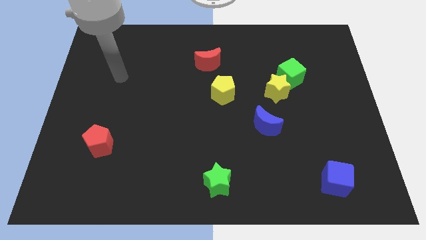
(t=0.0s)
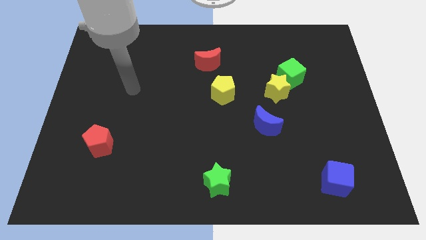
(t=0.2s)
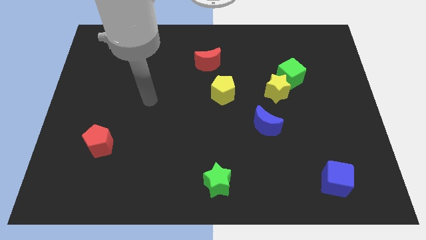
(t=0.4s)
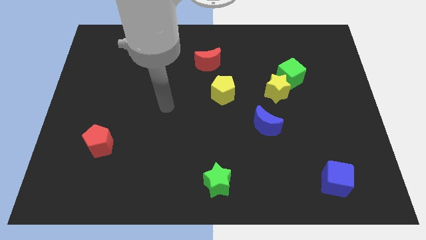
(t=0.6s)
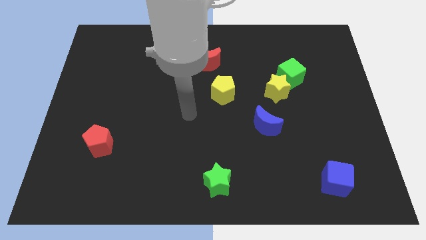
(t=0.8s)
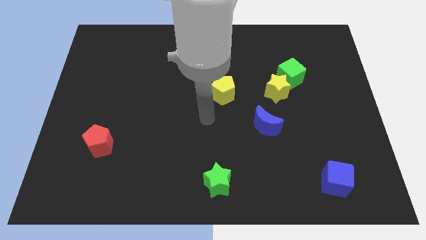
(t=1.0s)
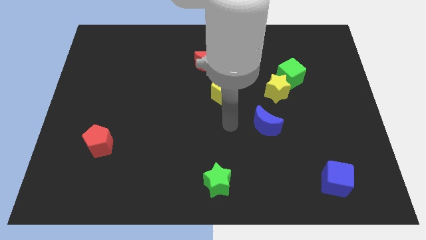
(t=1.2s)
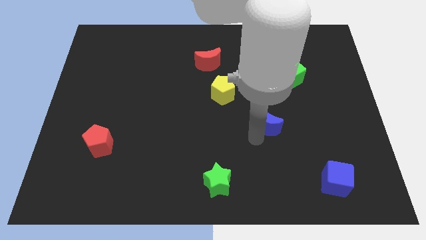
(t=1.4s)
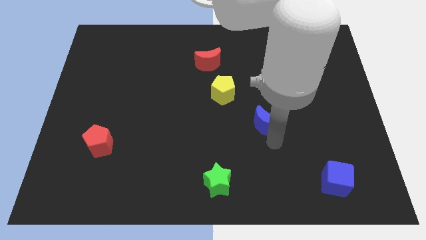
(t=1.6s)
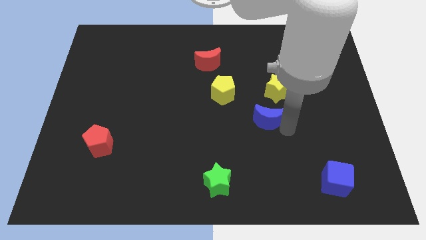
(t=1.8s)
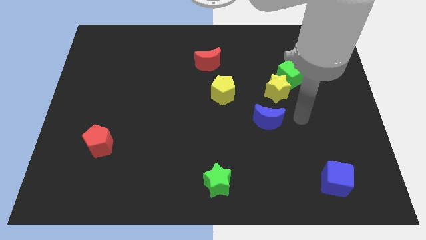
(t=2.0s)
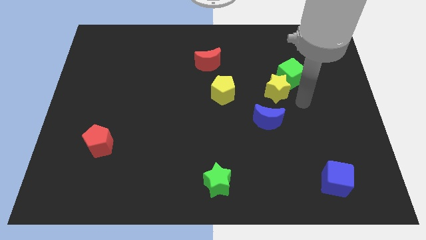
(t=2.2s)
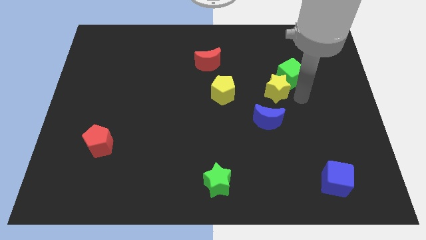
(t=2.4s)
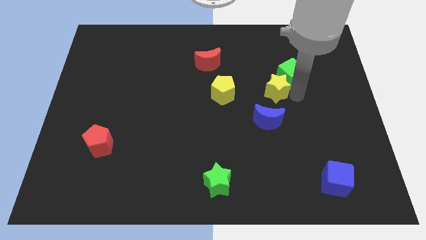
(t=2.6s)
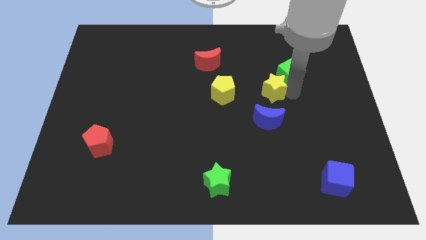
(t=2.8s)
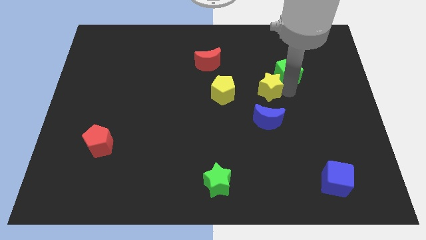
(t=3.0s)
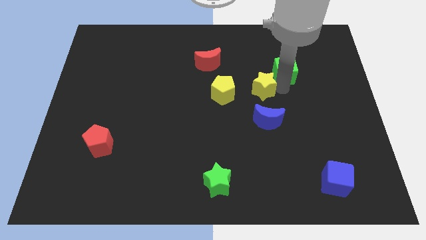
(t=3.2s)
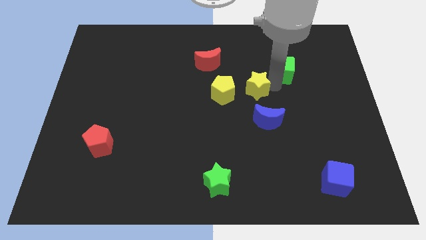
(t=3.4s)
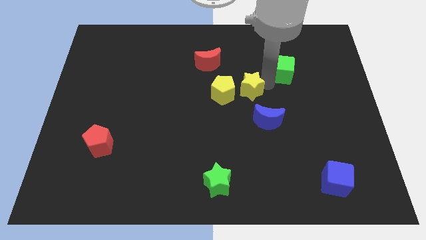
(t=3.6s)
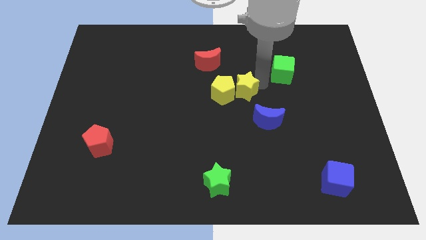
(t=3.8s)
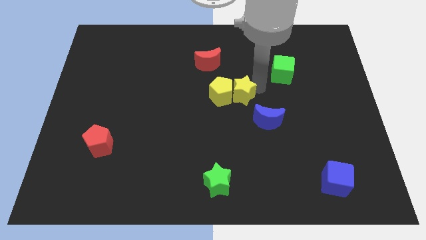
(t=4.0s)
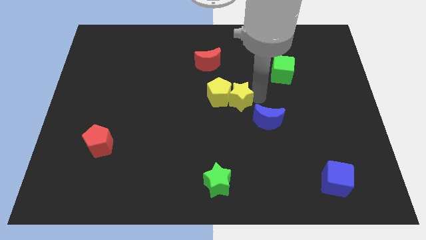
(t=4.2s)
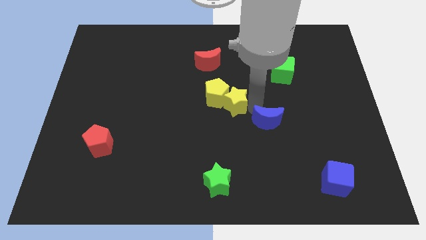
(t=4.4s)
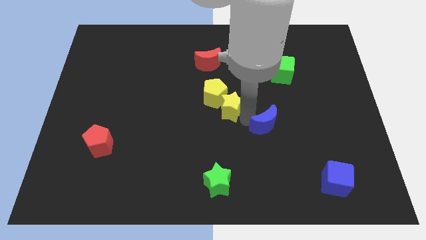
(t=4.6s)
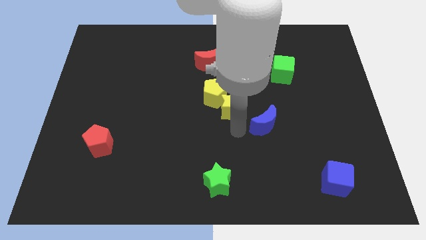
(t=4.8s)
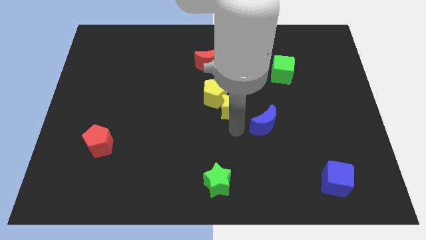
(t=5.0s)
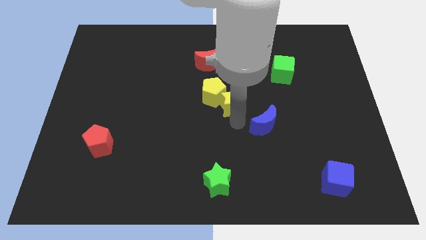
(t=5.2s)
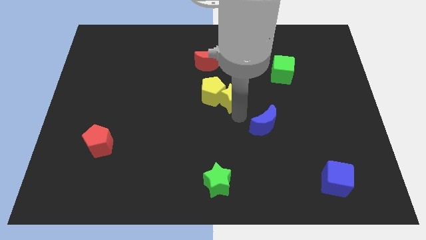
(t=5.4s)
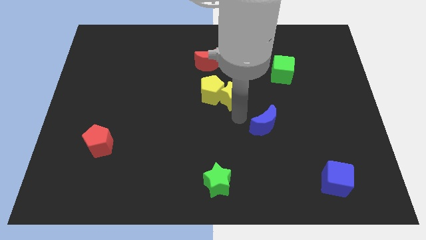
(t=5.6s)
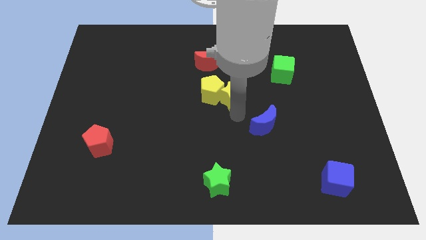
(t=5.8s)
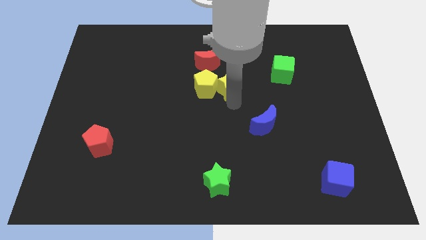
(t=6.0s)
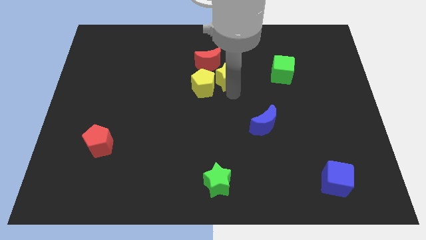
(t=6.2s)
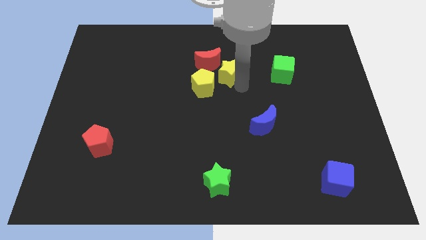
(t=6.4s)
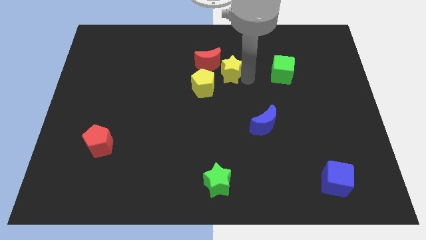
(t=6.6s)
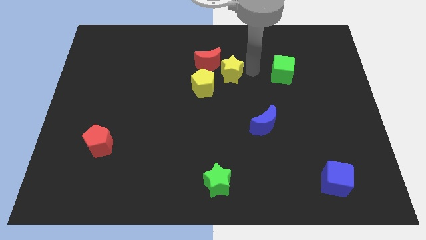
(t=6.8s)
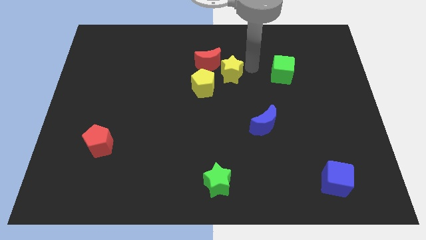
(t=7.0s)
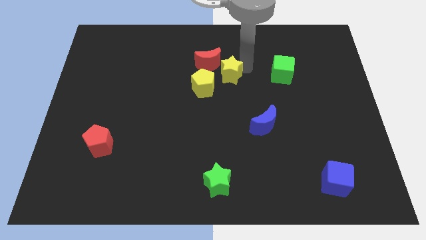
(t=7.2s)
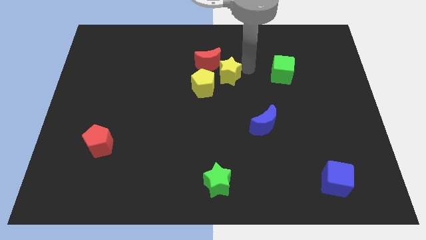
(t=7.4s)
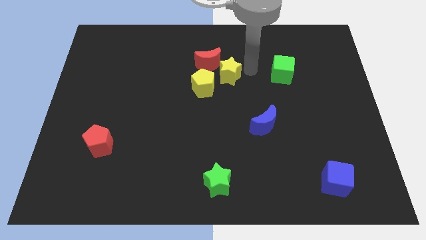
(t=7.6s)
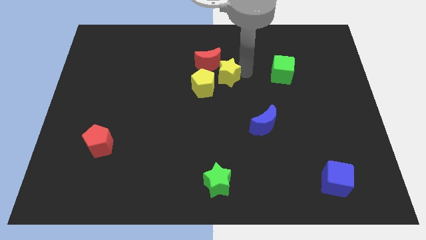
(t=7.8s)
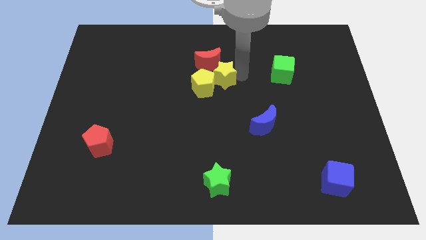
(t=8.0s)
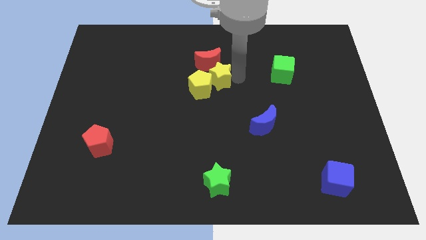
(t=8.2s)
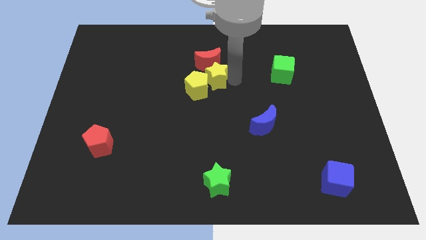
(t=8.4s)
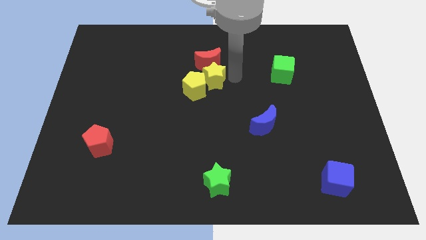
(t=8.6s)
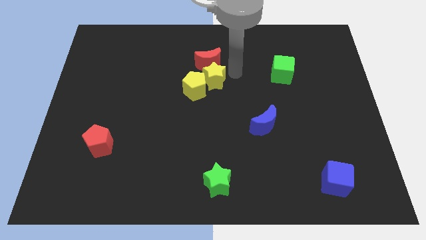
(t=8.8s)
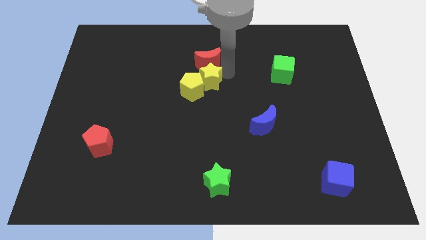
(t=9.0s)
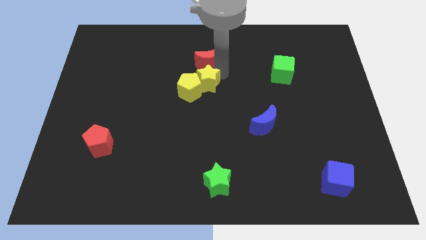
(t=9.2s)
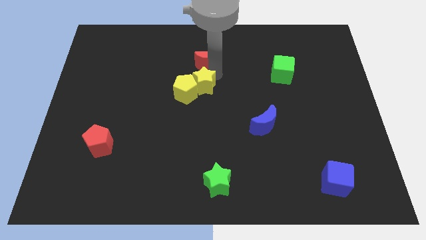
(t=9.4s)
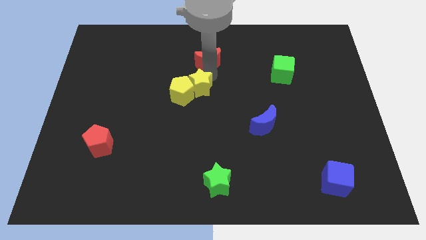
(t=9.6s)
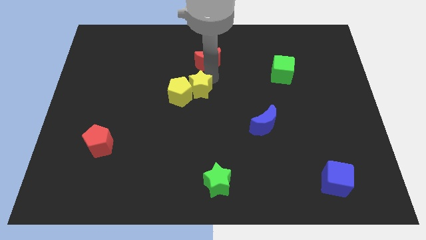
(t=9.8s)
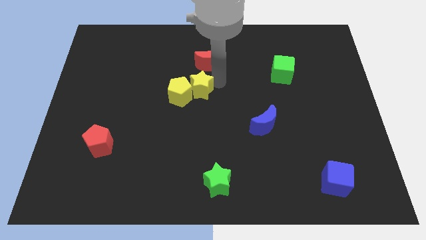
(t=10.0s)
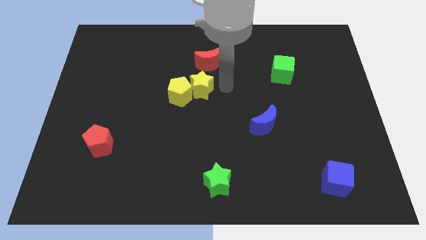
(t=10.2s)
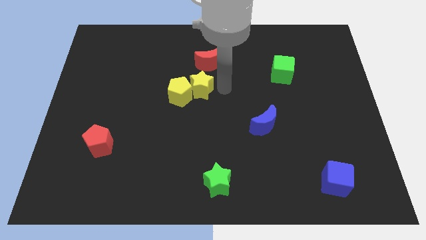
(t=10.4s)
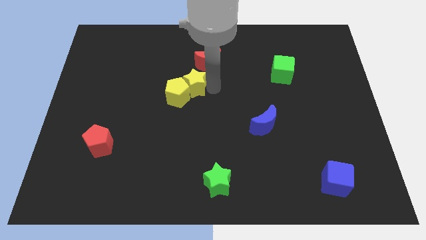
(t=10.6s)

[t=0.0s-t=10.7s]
move the yellow star to the left

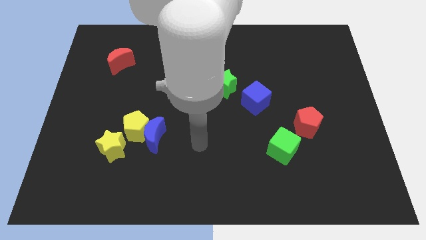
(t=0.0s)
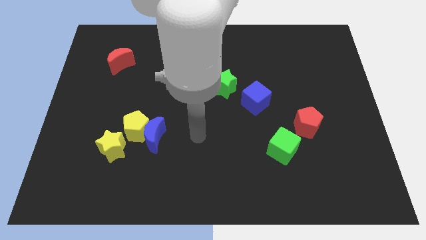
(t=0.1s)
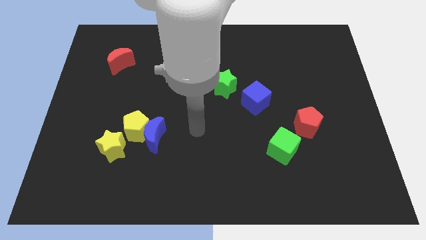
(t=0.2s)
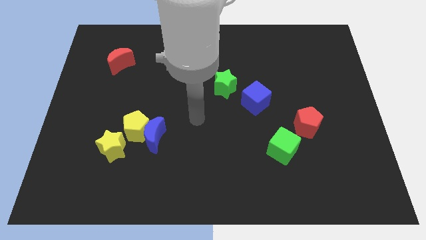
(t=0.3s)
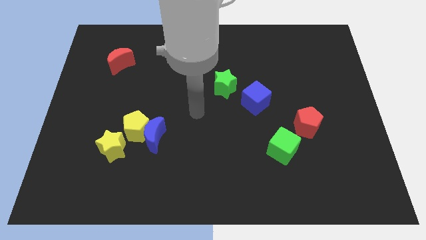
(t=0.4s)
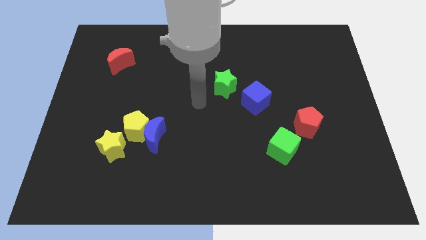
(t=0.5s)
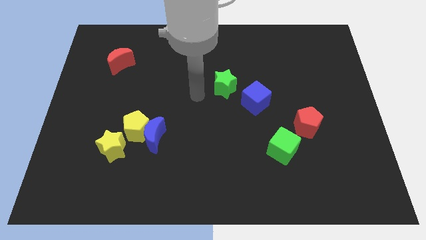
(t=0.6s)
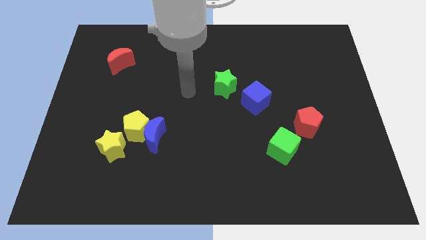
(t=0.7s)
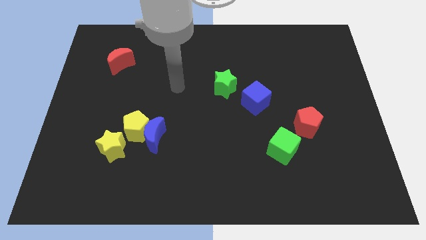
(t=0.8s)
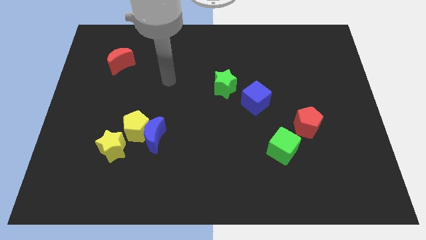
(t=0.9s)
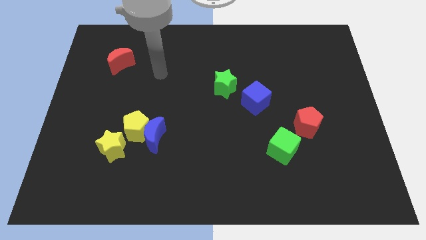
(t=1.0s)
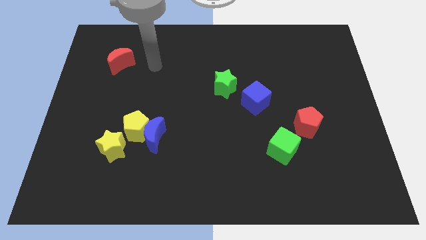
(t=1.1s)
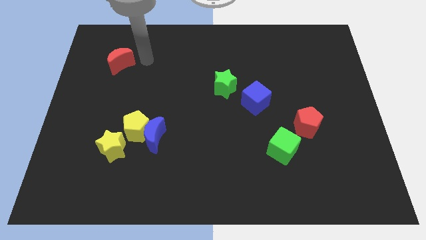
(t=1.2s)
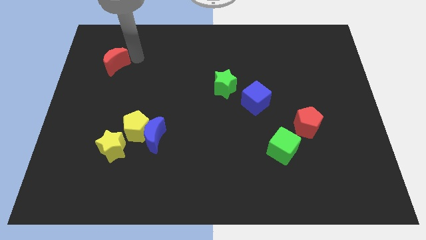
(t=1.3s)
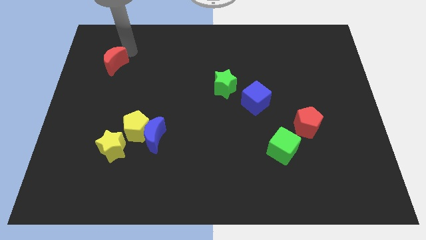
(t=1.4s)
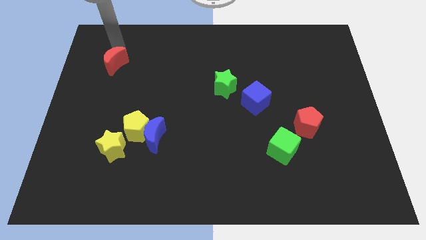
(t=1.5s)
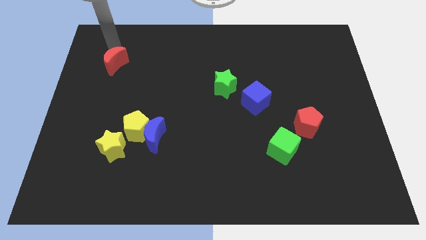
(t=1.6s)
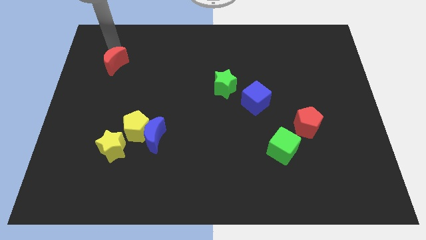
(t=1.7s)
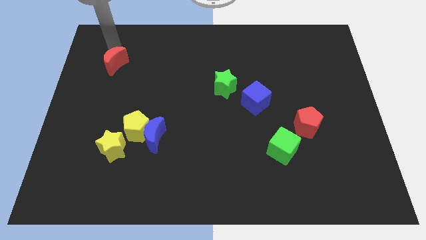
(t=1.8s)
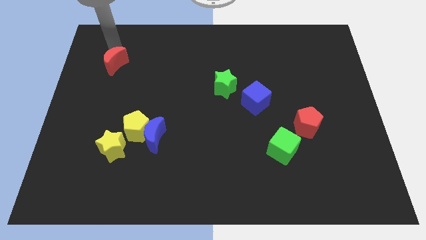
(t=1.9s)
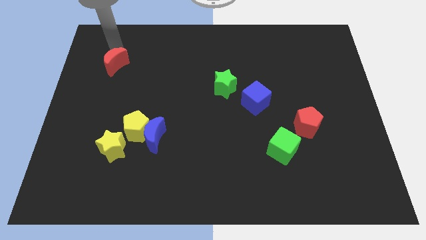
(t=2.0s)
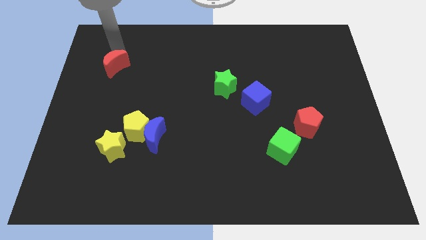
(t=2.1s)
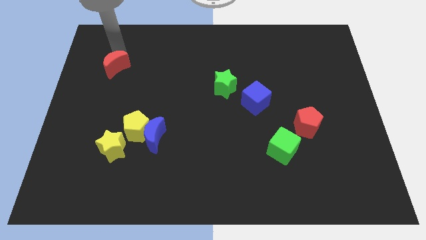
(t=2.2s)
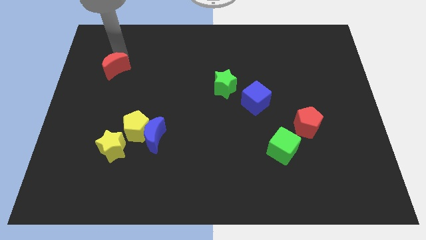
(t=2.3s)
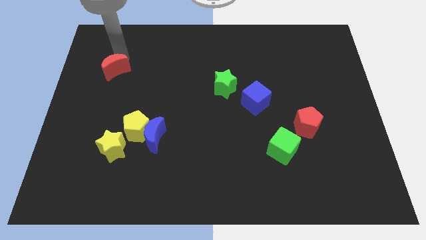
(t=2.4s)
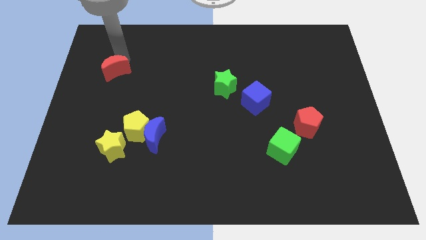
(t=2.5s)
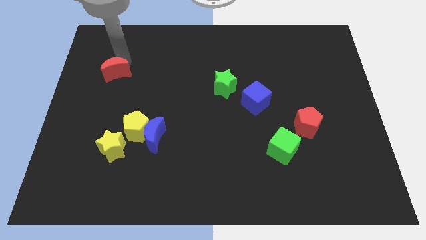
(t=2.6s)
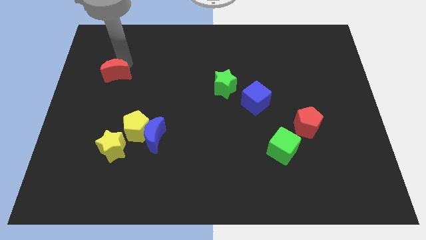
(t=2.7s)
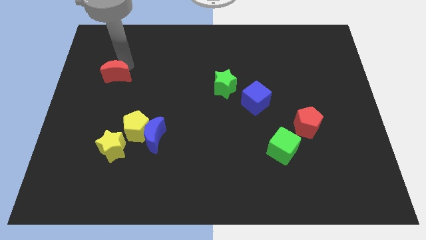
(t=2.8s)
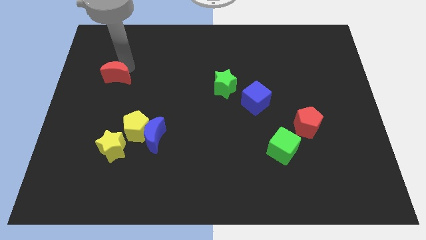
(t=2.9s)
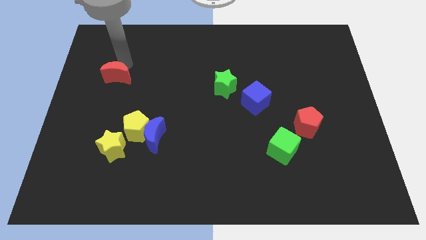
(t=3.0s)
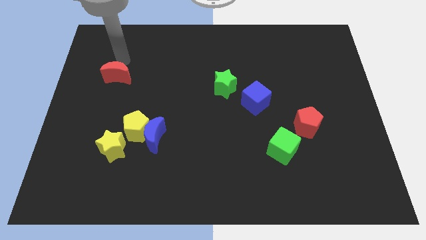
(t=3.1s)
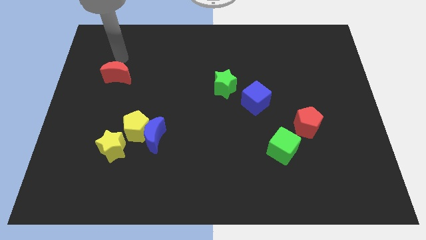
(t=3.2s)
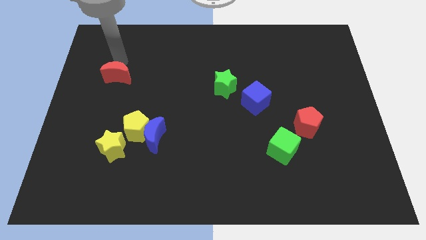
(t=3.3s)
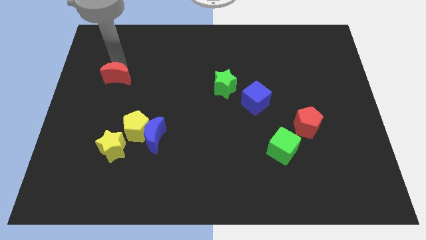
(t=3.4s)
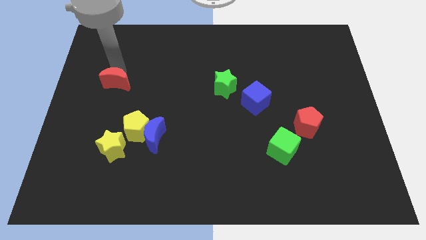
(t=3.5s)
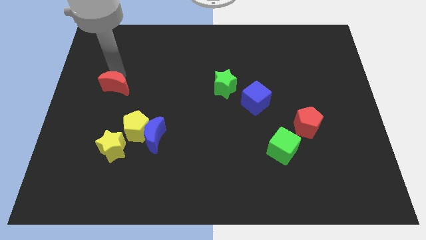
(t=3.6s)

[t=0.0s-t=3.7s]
push the red moon a bit downwards
